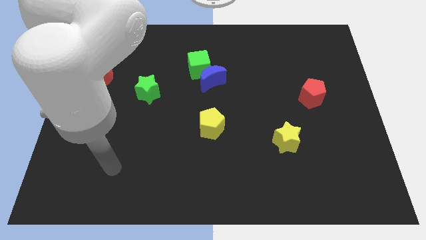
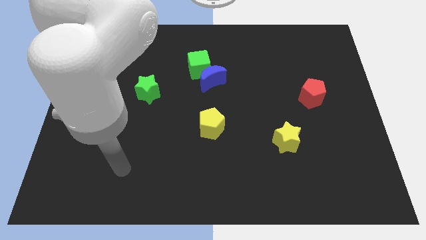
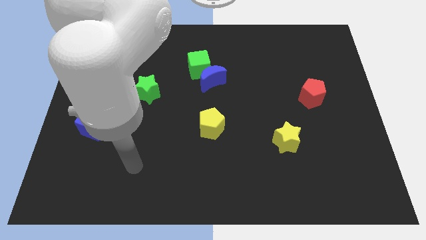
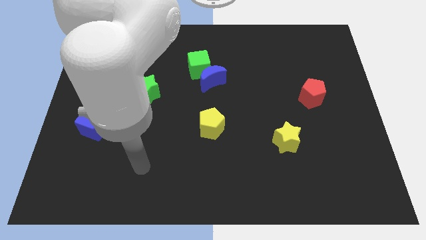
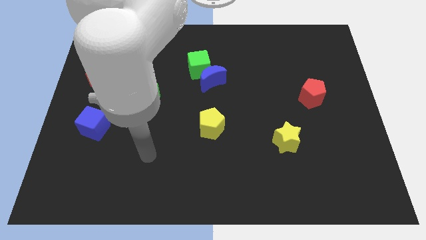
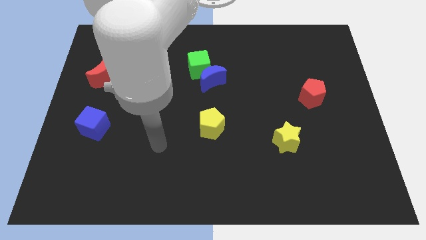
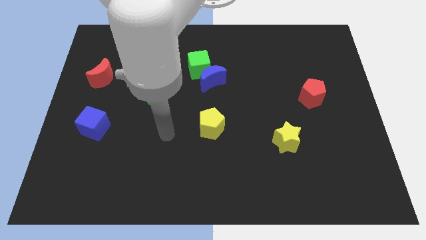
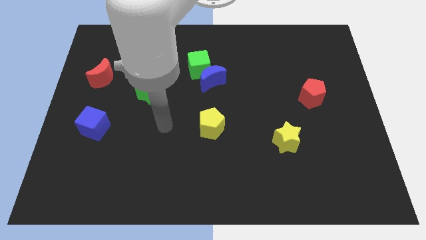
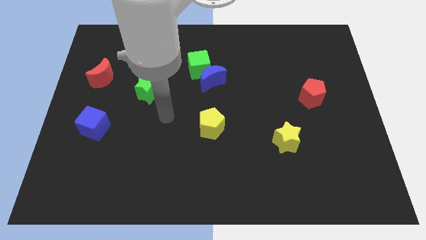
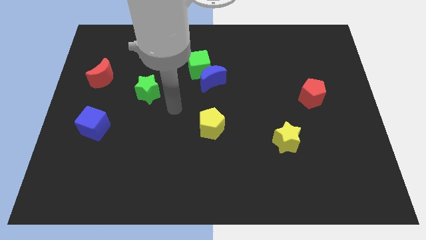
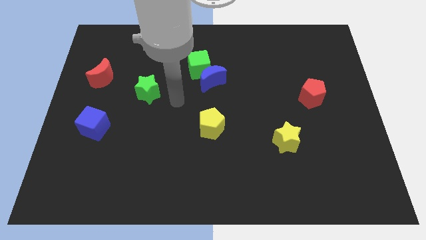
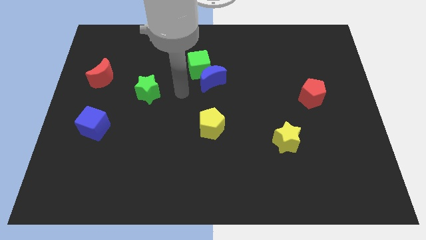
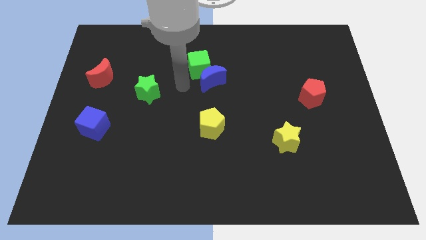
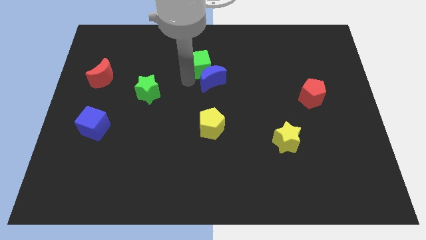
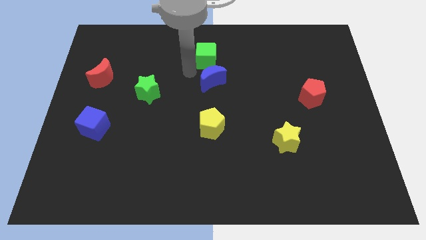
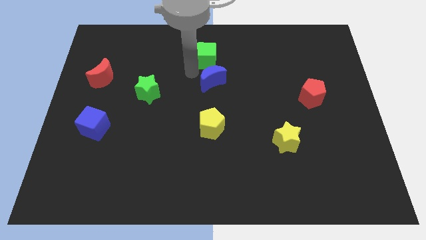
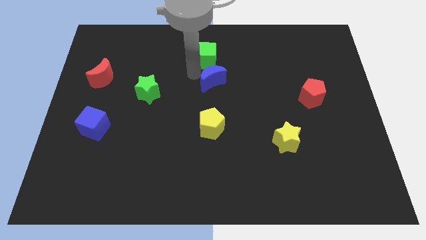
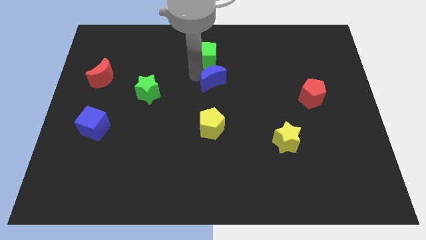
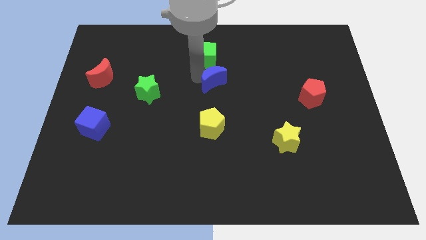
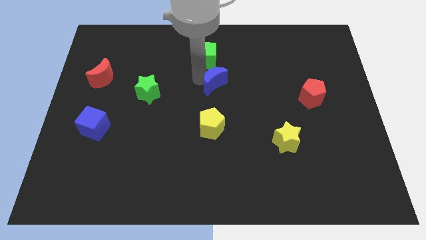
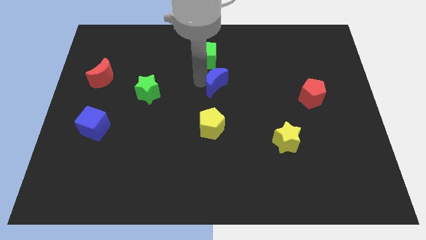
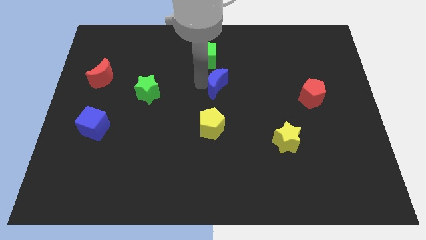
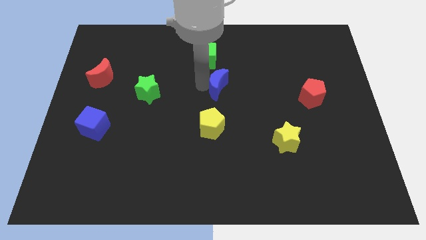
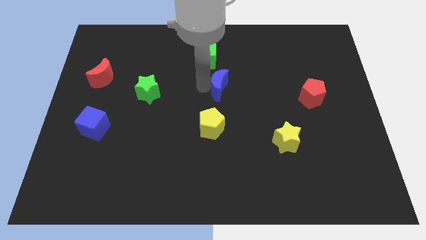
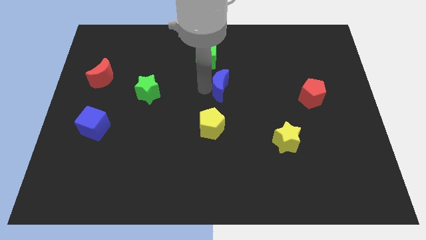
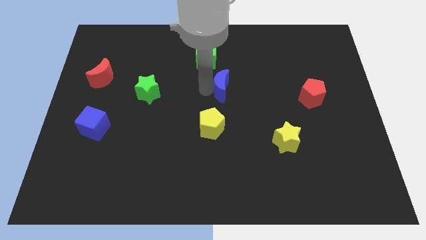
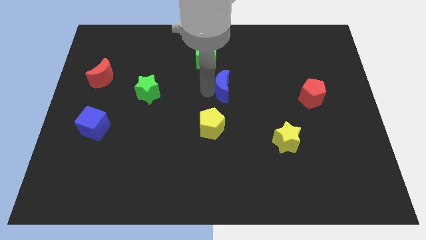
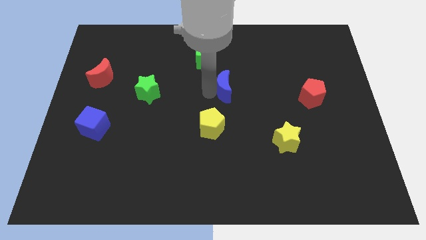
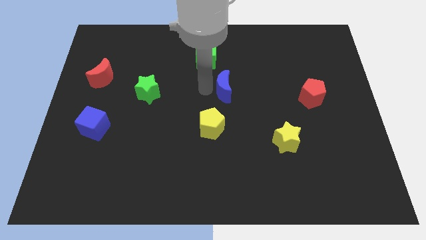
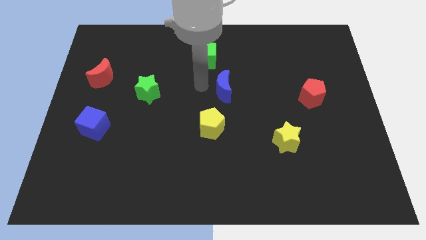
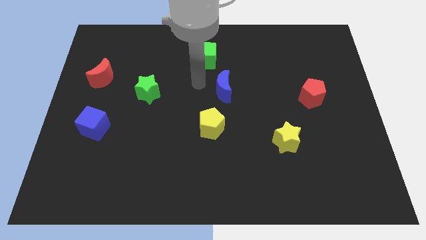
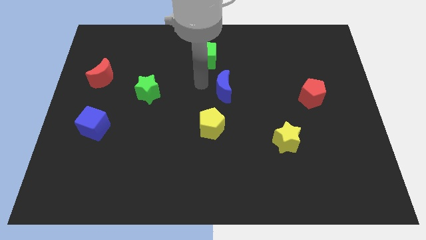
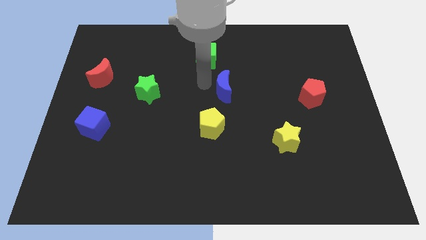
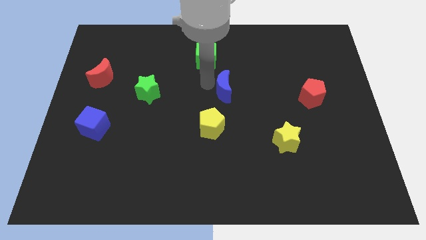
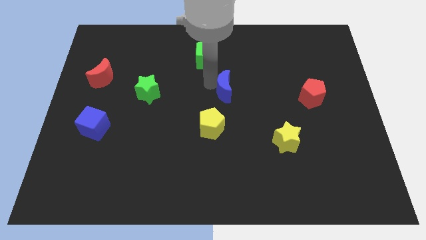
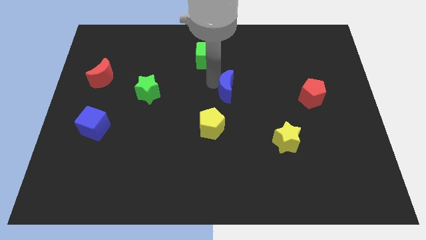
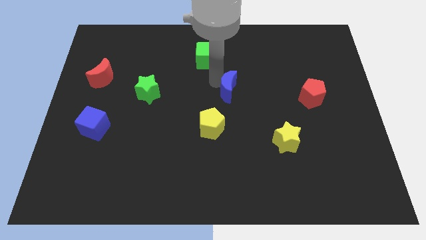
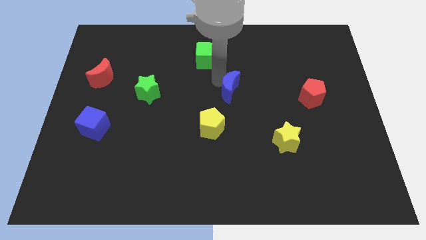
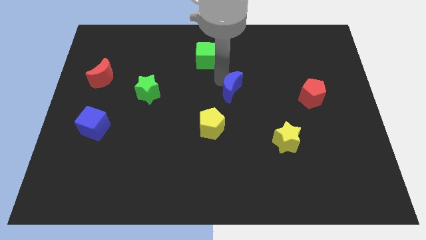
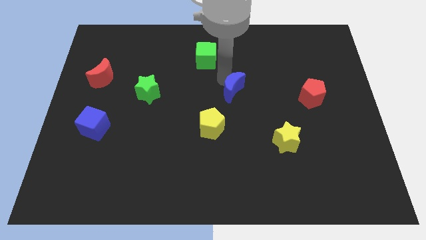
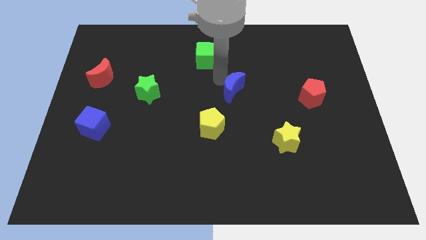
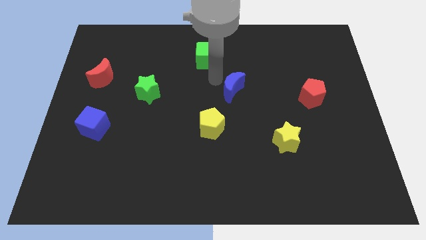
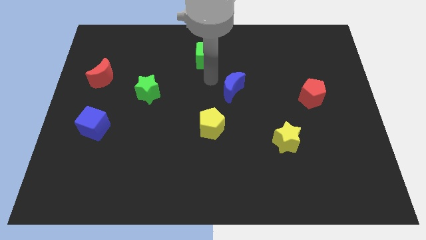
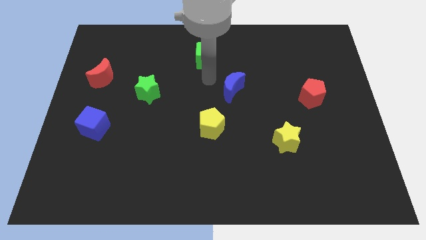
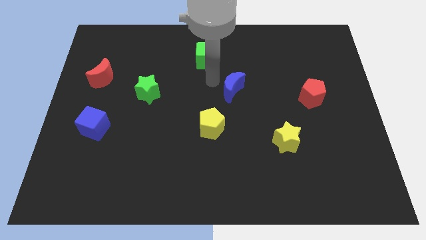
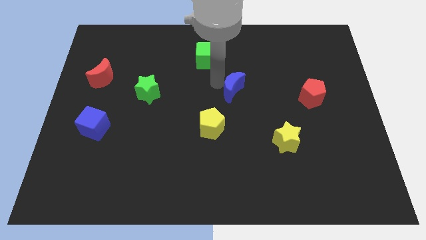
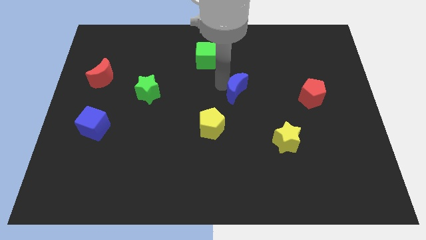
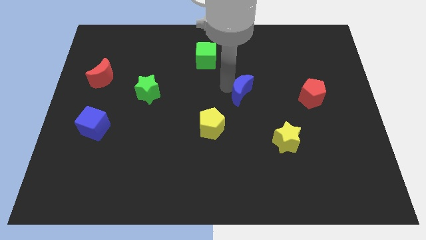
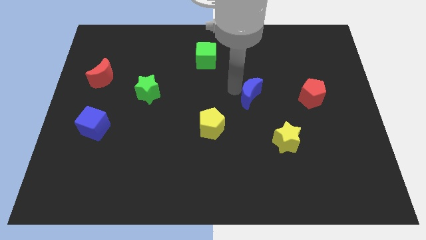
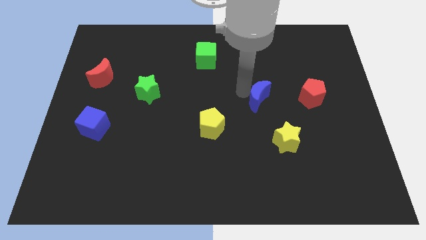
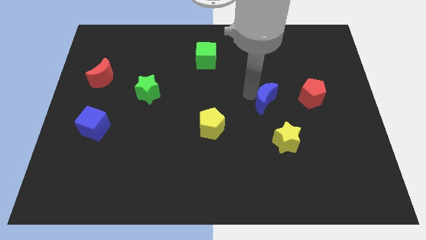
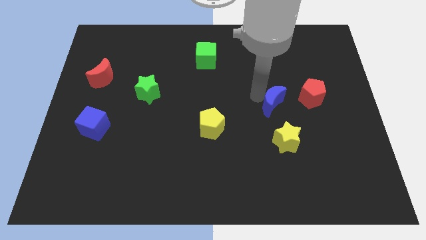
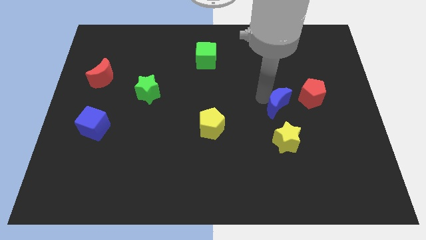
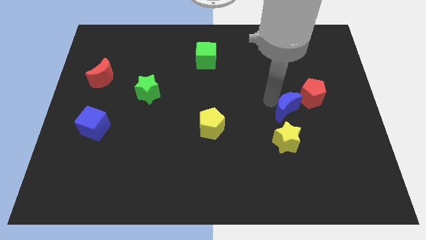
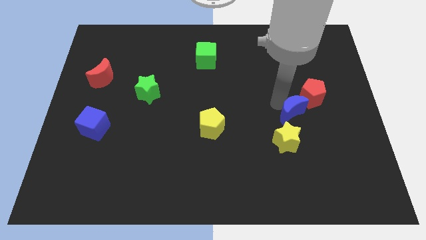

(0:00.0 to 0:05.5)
put the blue moon to the top right of the yellow star

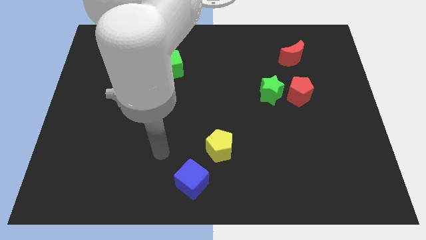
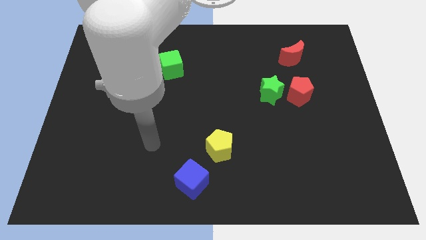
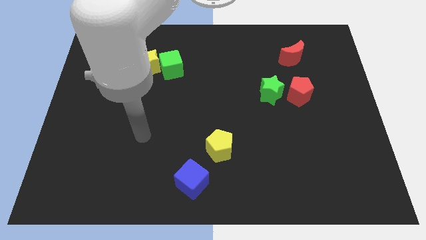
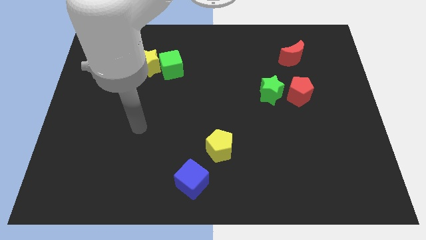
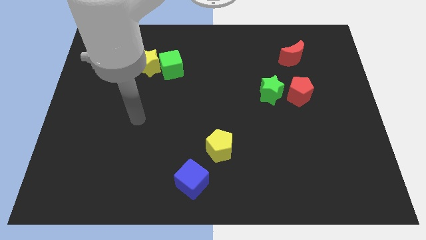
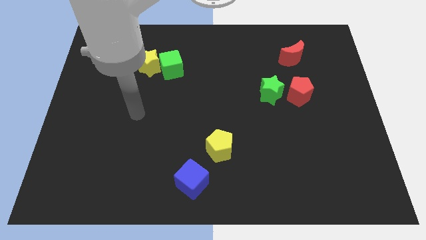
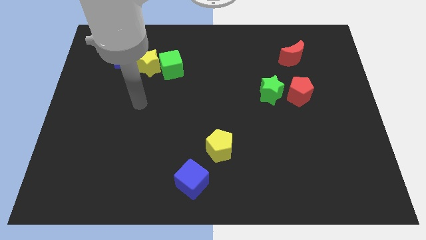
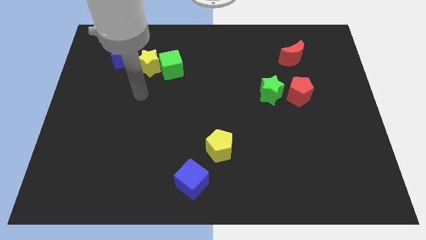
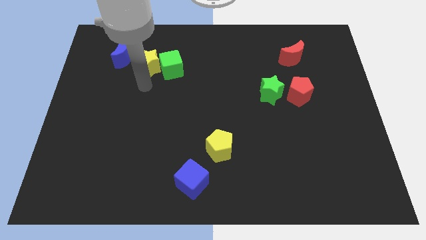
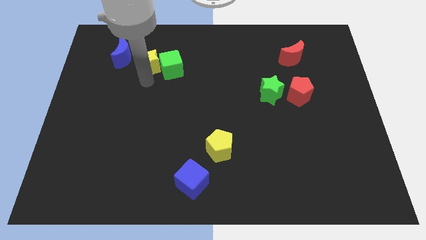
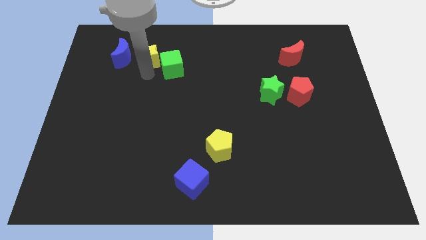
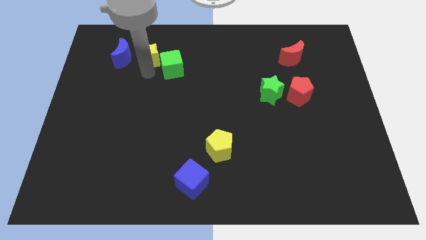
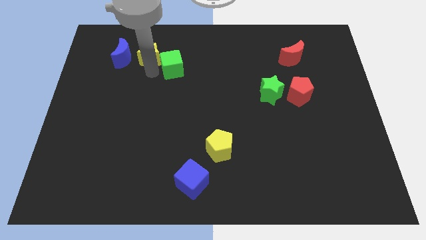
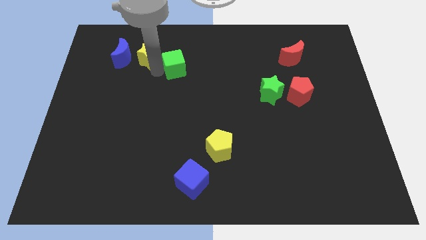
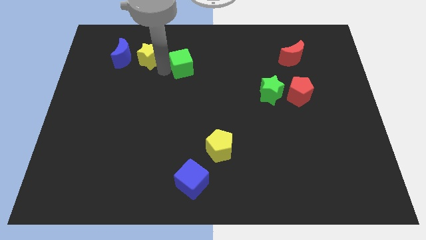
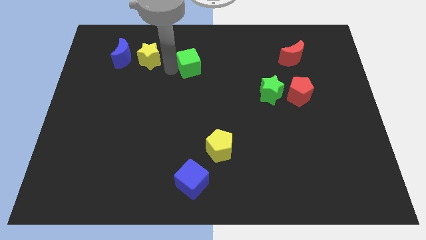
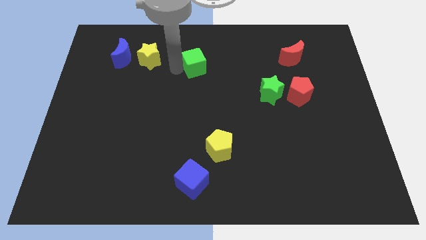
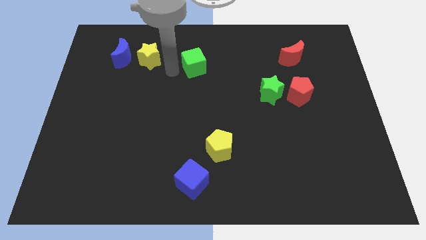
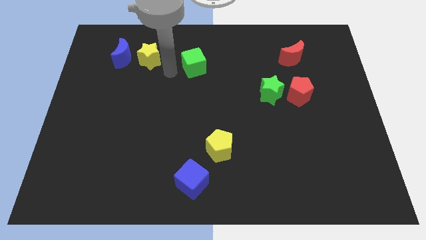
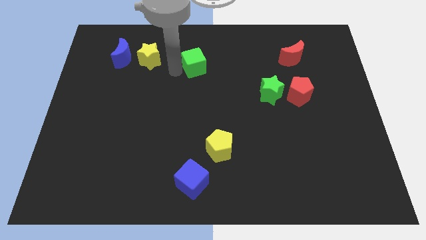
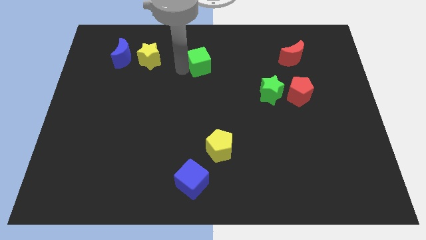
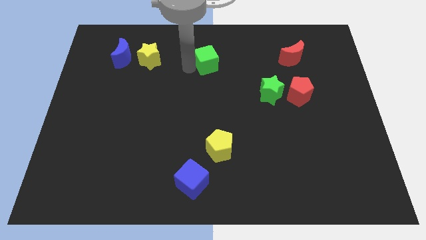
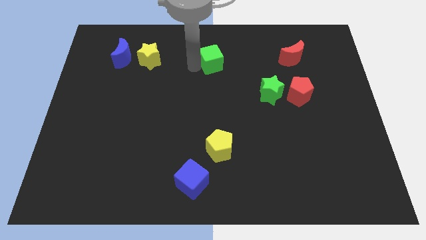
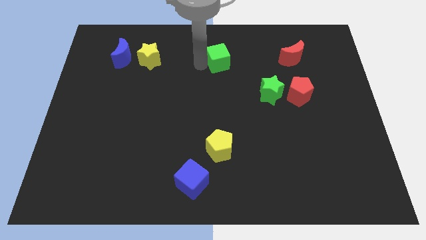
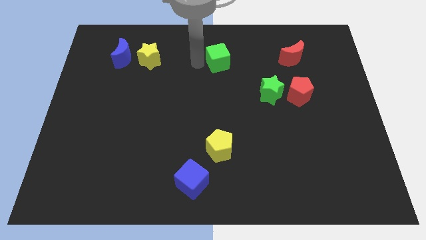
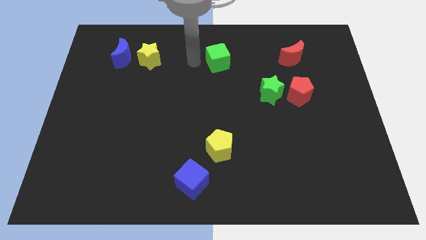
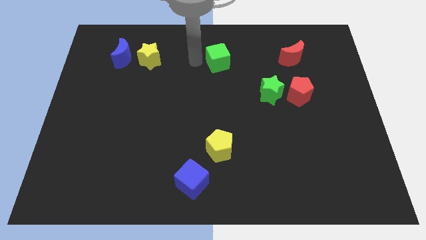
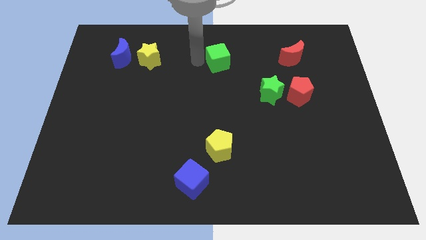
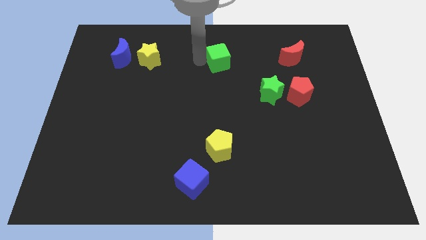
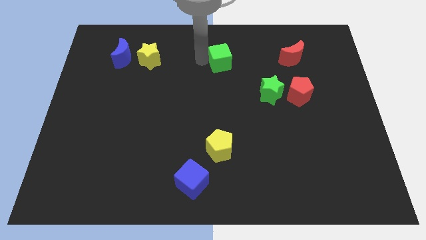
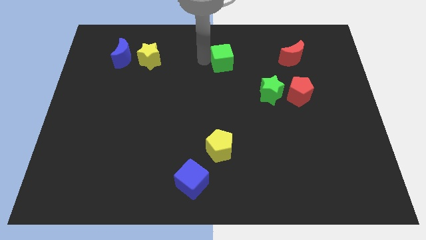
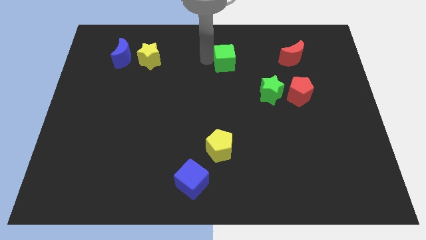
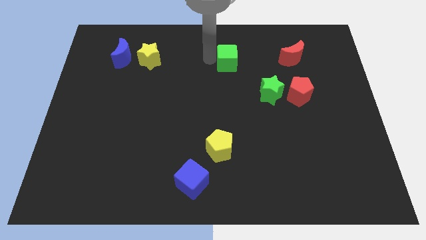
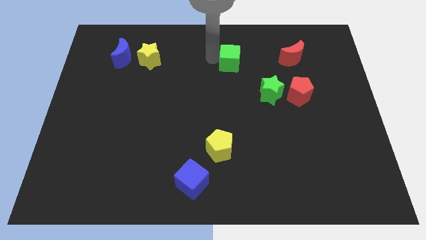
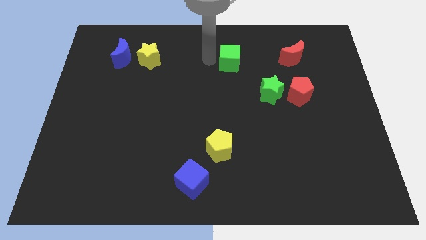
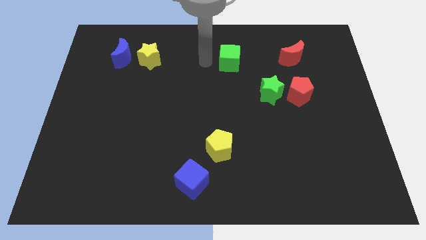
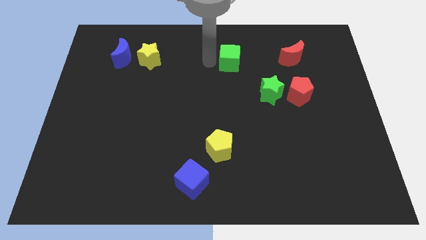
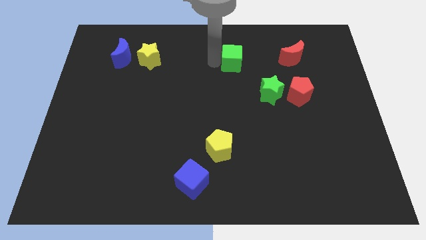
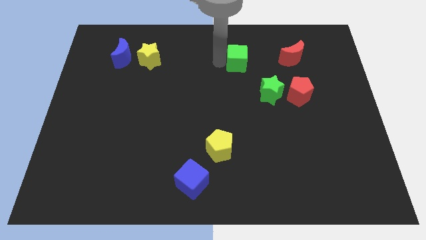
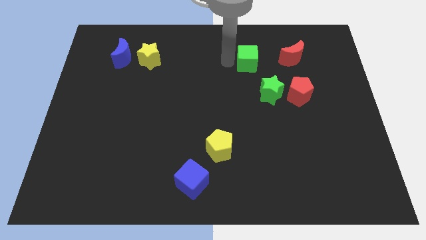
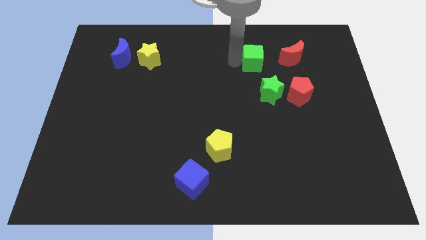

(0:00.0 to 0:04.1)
push the green cube to the top side of the green star
